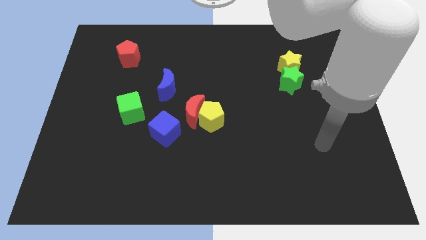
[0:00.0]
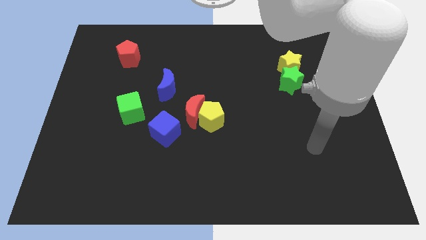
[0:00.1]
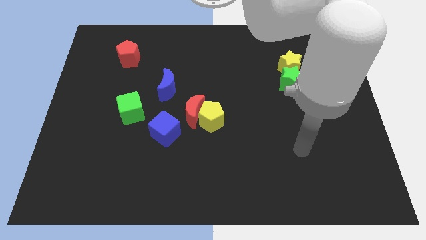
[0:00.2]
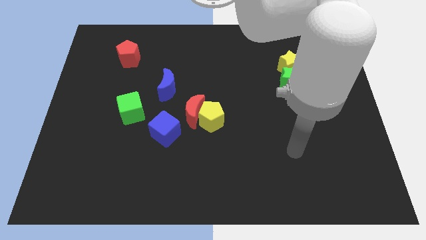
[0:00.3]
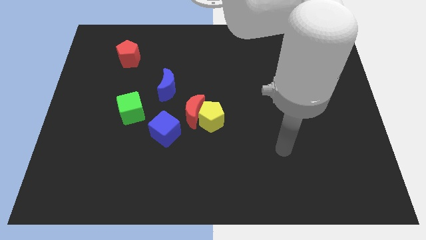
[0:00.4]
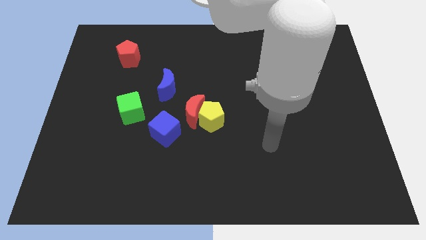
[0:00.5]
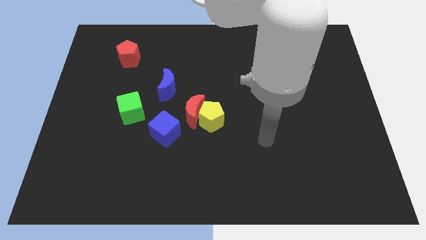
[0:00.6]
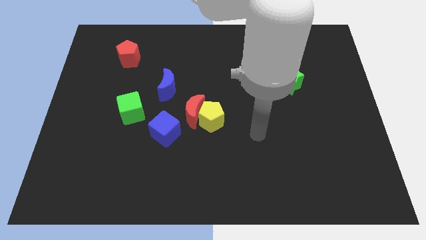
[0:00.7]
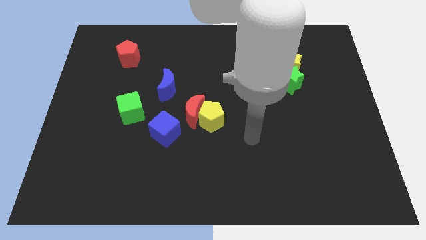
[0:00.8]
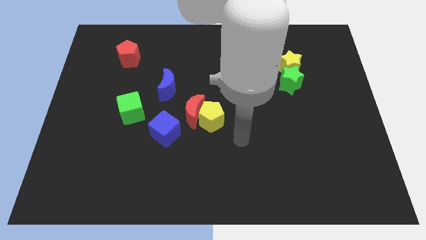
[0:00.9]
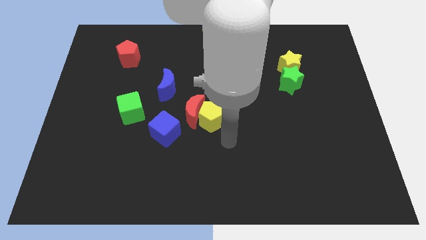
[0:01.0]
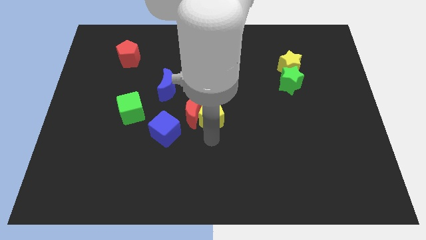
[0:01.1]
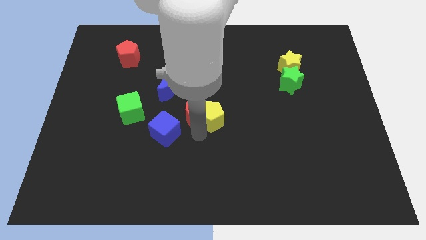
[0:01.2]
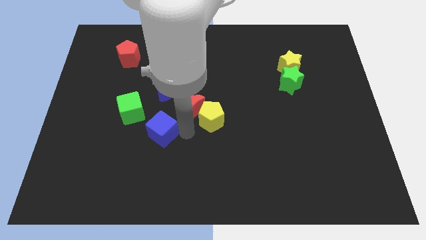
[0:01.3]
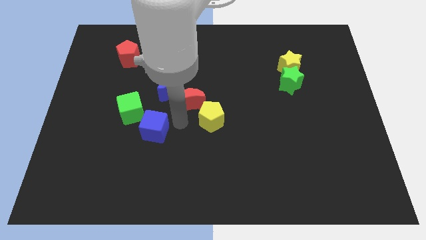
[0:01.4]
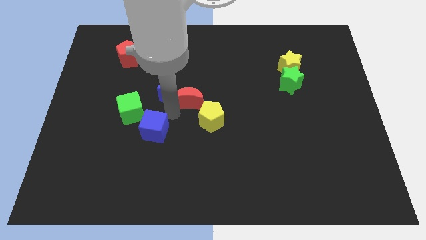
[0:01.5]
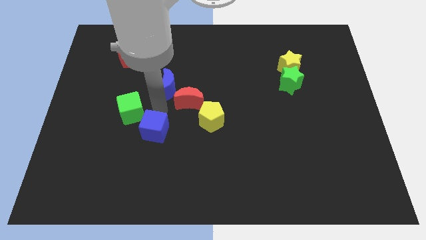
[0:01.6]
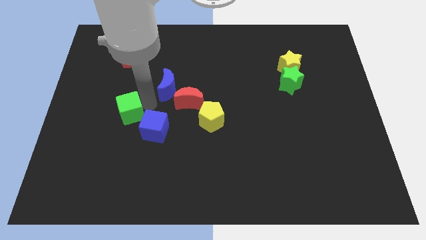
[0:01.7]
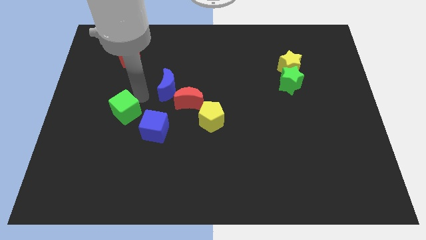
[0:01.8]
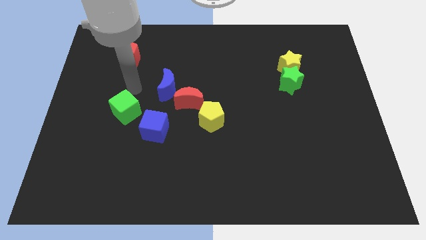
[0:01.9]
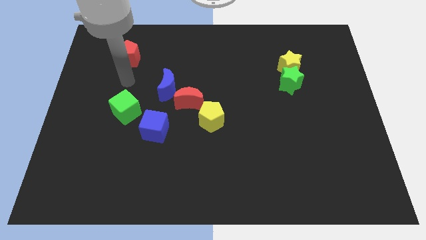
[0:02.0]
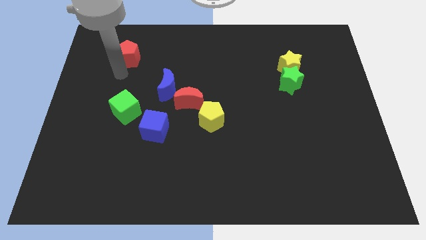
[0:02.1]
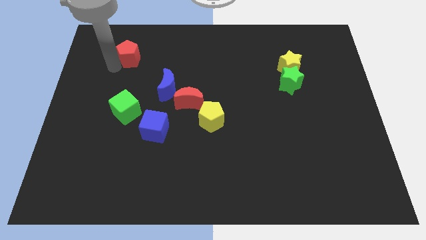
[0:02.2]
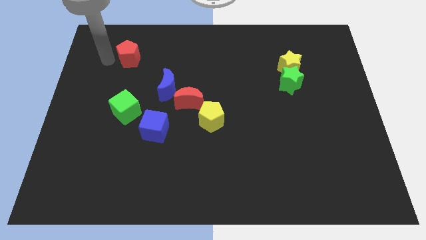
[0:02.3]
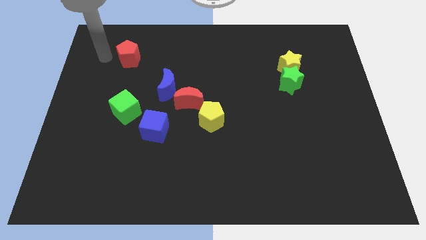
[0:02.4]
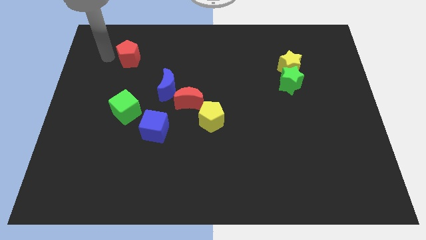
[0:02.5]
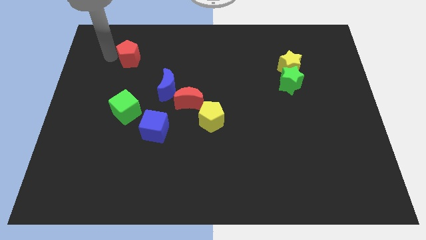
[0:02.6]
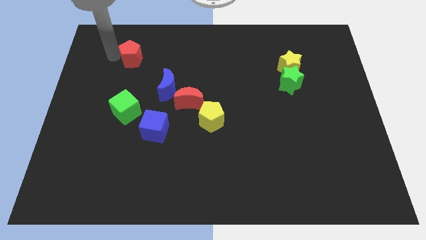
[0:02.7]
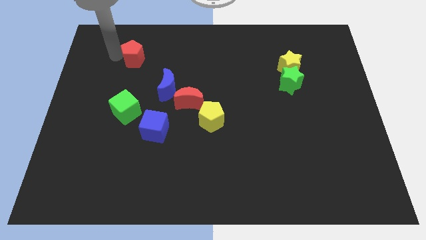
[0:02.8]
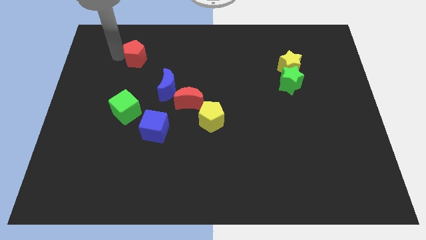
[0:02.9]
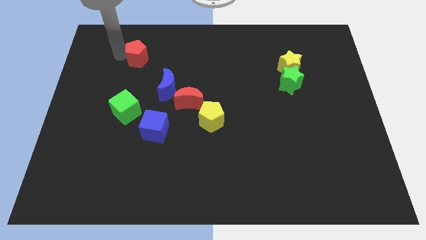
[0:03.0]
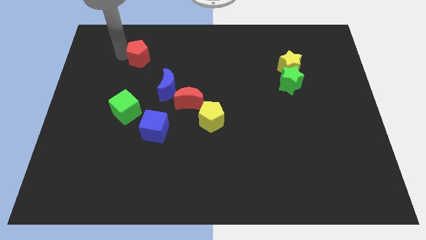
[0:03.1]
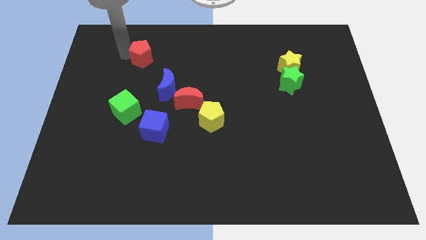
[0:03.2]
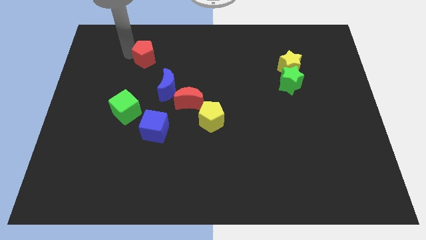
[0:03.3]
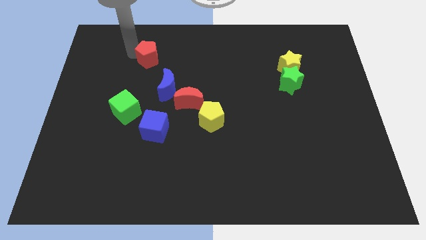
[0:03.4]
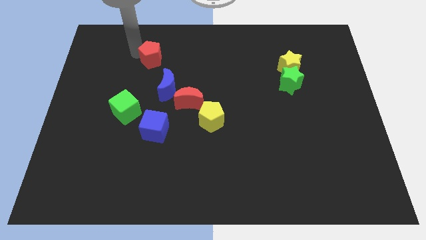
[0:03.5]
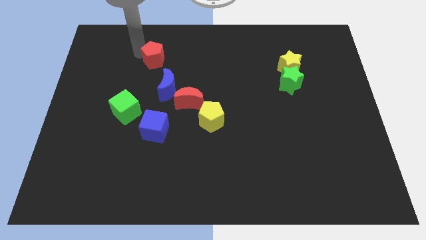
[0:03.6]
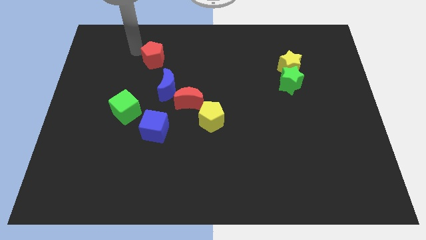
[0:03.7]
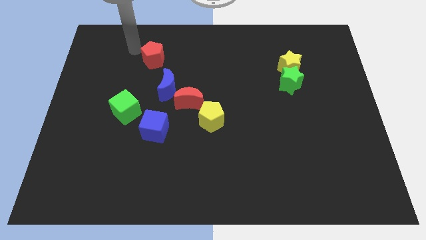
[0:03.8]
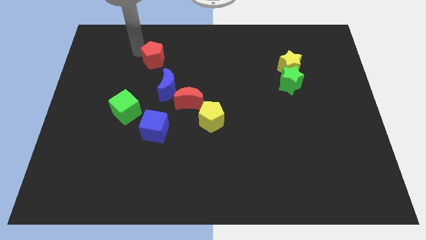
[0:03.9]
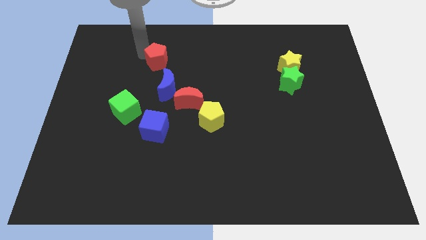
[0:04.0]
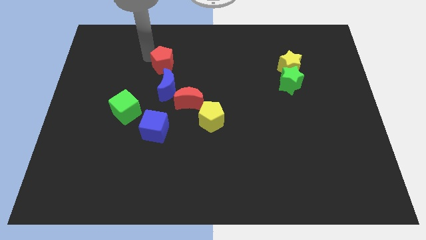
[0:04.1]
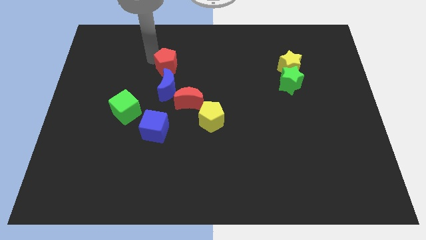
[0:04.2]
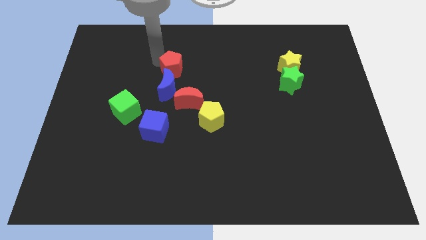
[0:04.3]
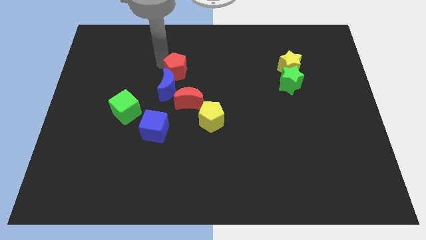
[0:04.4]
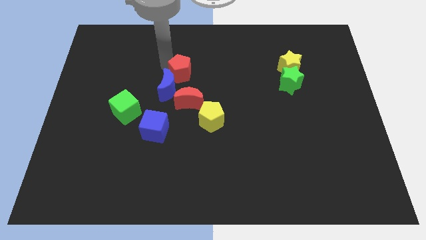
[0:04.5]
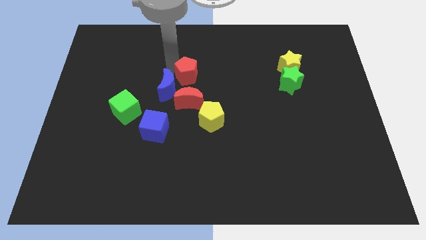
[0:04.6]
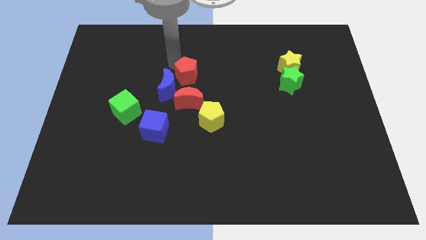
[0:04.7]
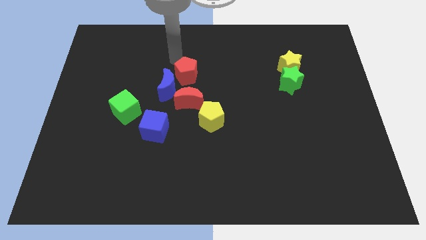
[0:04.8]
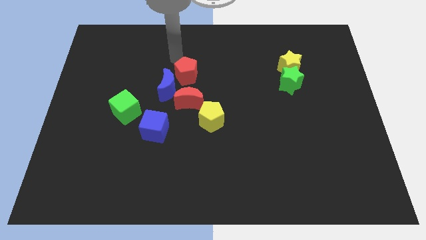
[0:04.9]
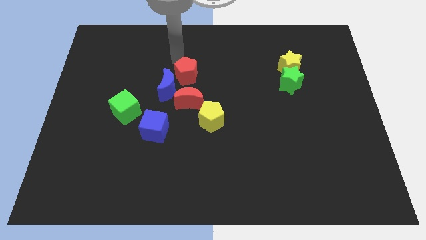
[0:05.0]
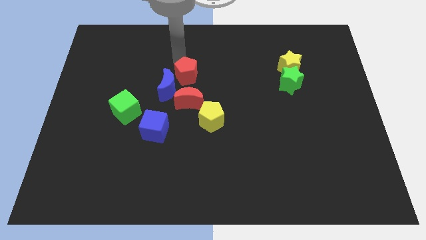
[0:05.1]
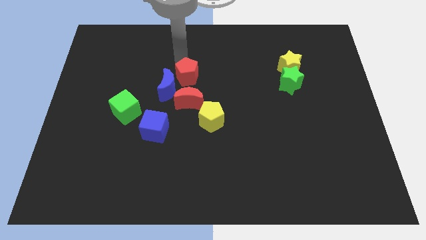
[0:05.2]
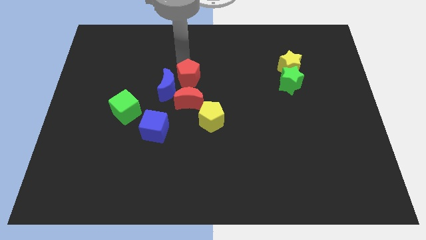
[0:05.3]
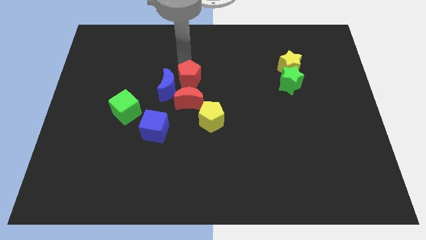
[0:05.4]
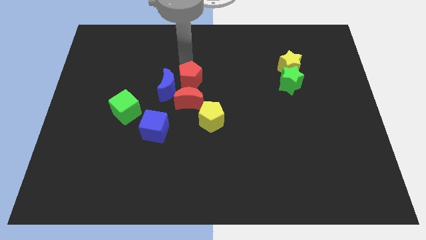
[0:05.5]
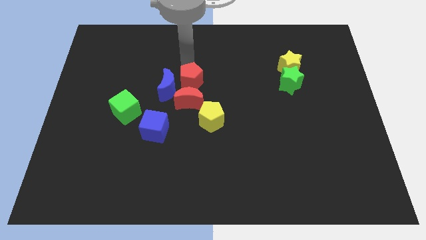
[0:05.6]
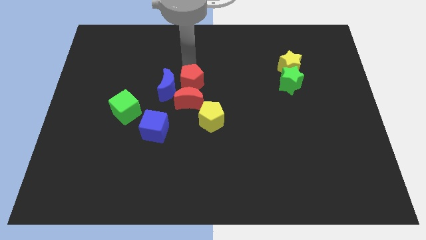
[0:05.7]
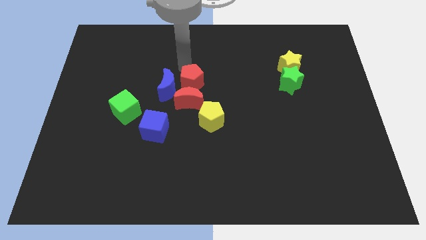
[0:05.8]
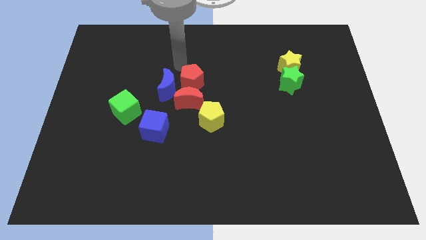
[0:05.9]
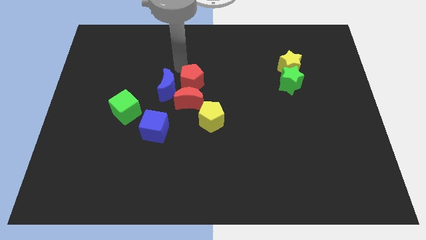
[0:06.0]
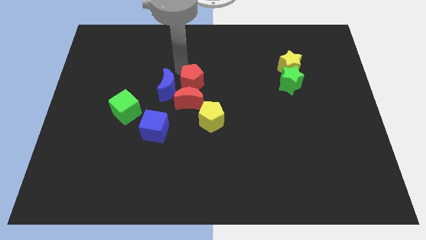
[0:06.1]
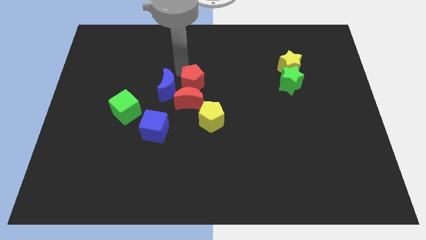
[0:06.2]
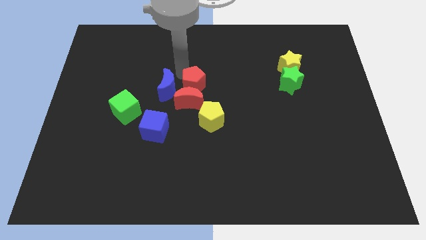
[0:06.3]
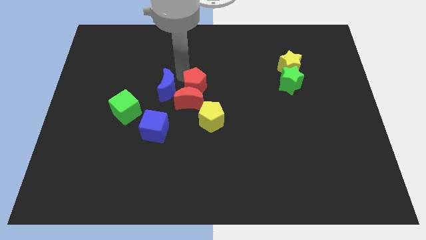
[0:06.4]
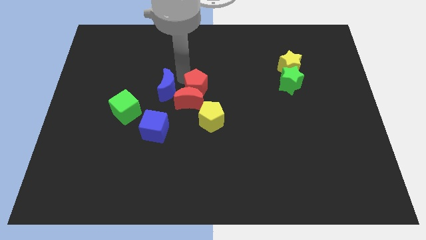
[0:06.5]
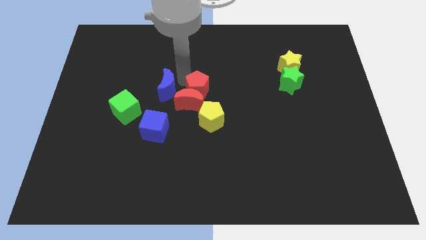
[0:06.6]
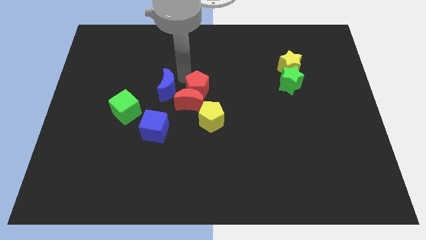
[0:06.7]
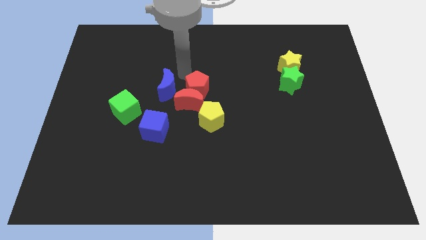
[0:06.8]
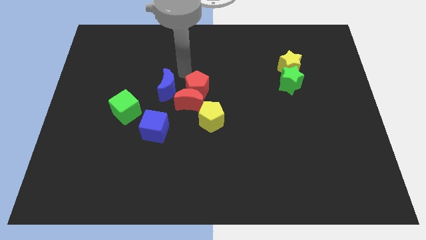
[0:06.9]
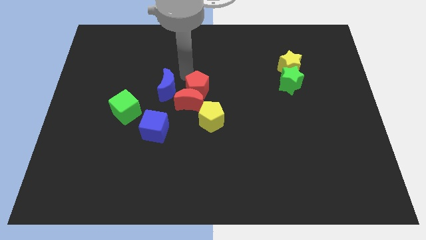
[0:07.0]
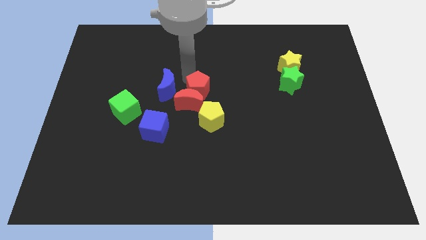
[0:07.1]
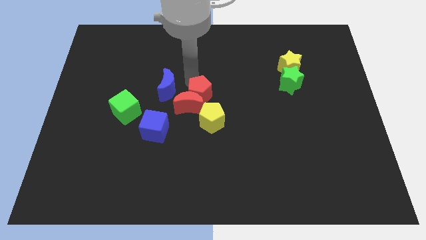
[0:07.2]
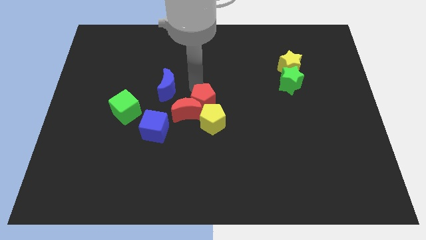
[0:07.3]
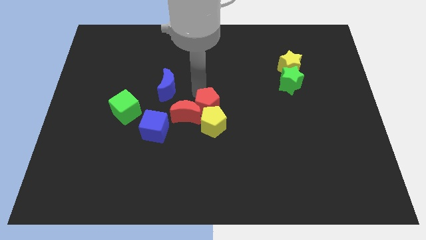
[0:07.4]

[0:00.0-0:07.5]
push the red pentagon close to the yellow pentagon

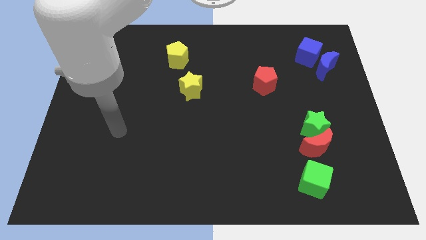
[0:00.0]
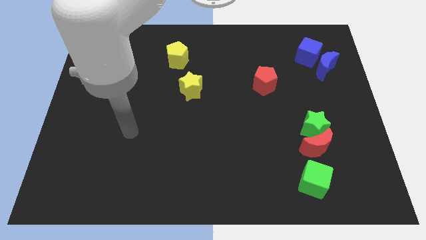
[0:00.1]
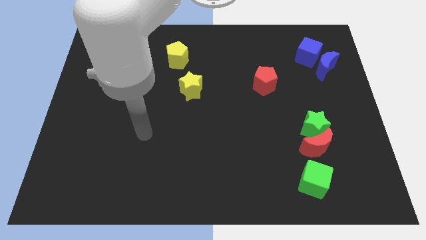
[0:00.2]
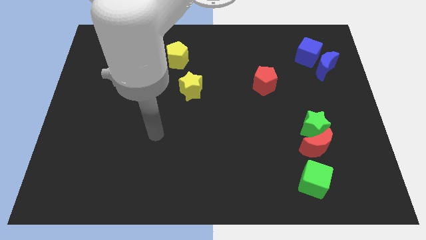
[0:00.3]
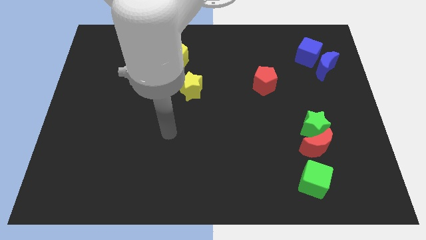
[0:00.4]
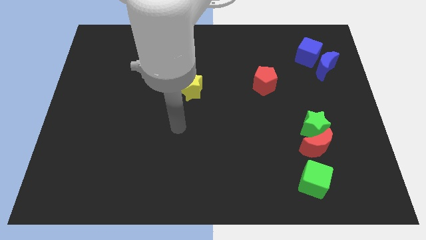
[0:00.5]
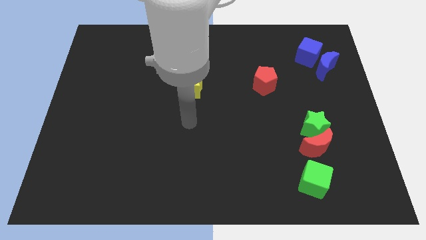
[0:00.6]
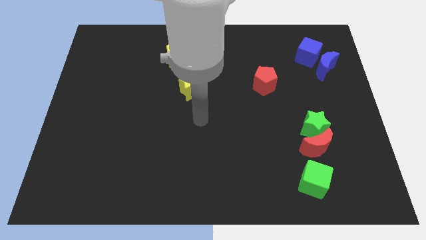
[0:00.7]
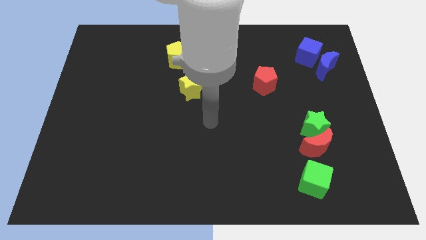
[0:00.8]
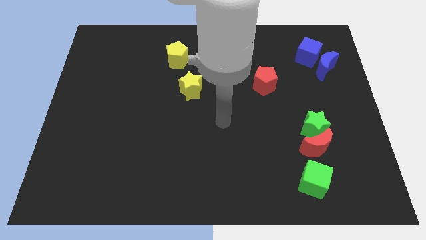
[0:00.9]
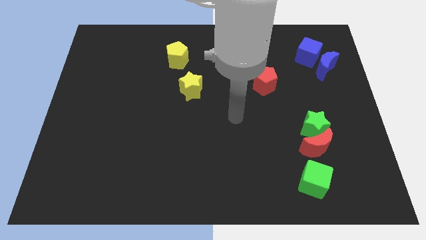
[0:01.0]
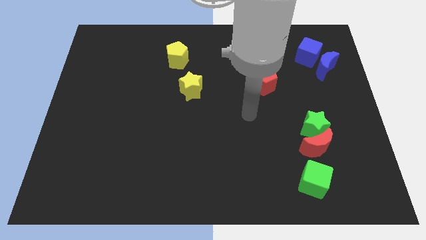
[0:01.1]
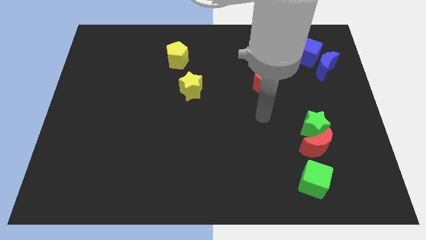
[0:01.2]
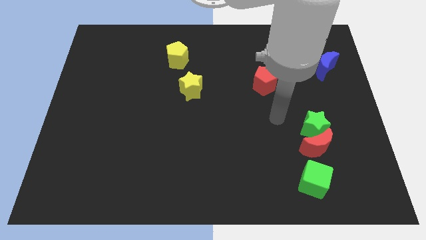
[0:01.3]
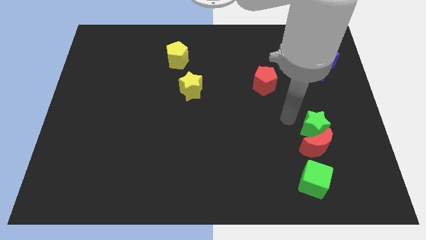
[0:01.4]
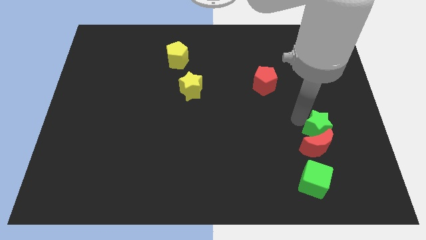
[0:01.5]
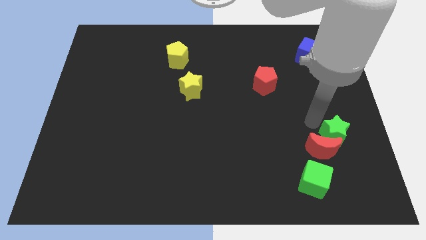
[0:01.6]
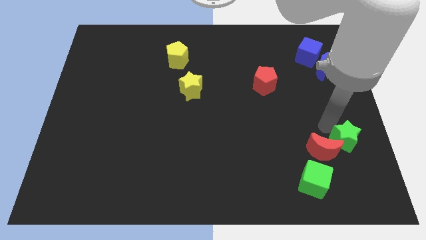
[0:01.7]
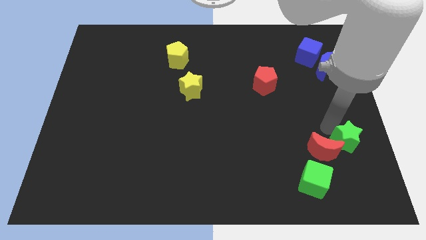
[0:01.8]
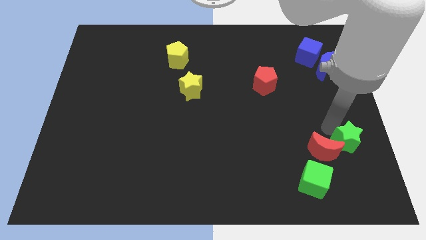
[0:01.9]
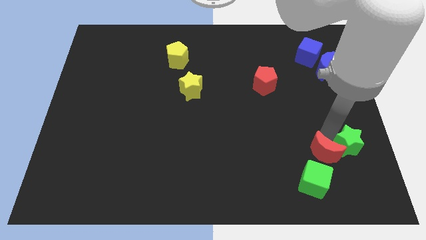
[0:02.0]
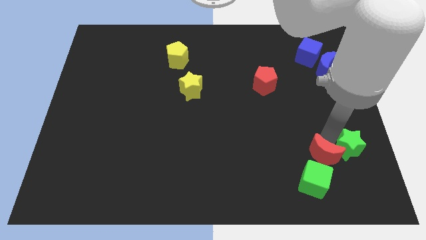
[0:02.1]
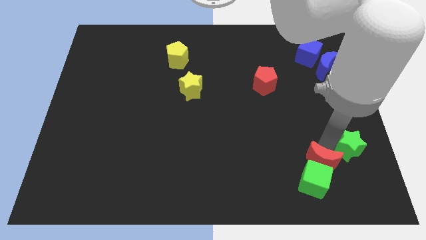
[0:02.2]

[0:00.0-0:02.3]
push the red moon close to the green cube
